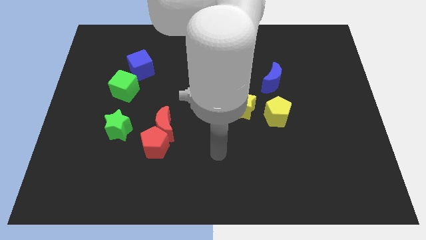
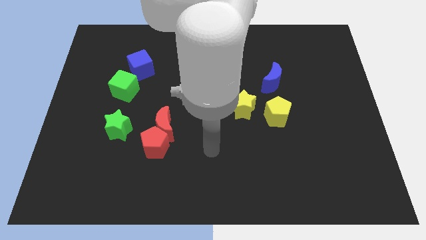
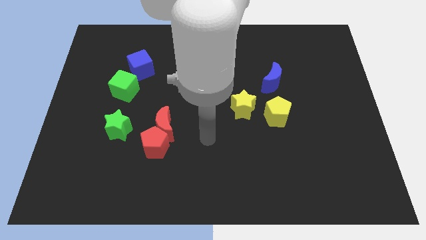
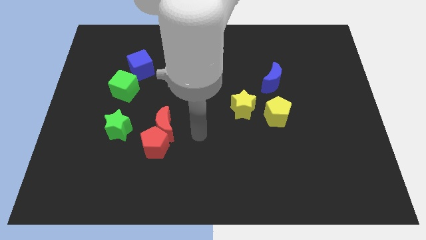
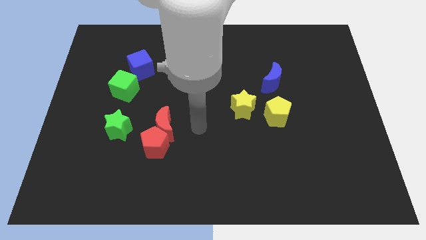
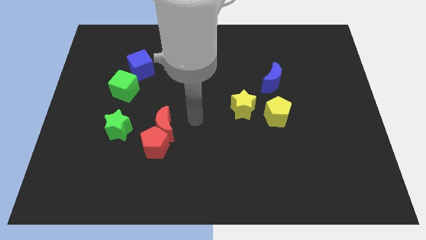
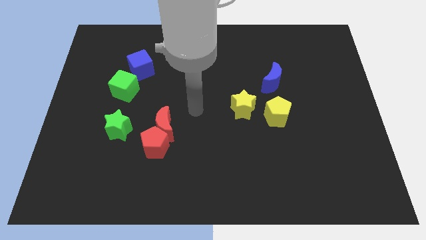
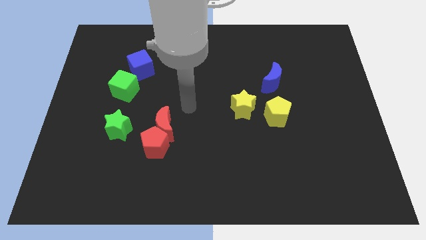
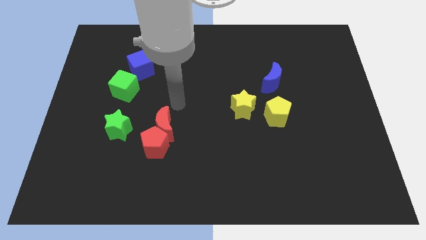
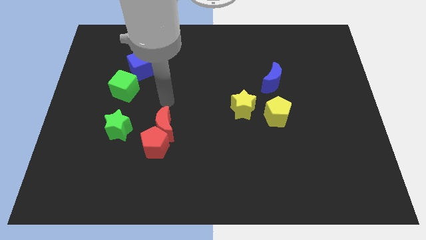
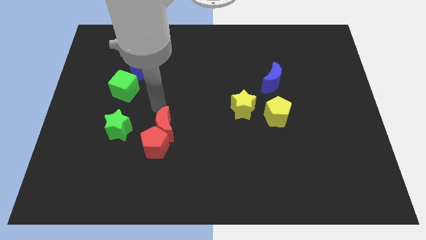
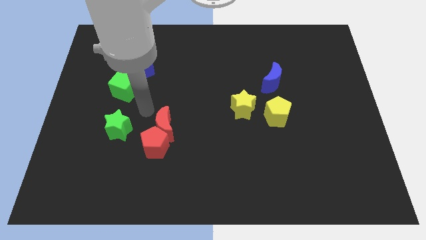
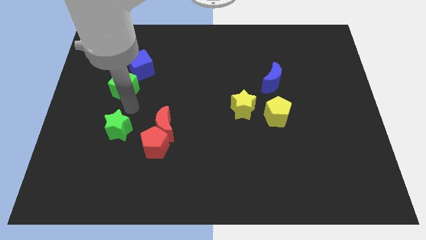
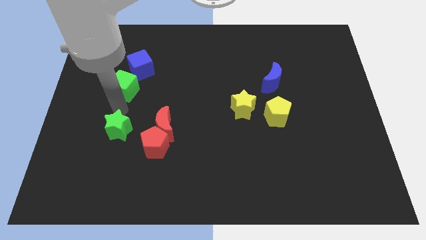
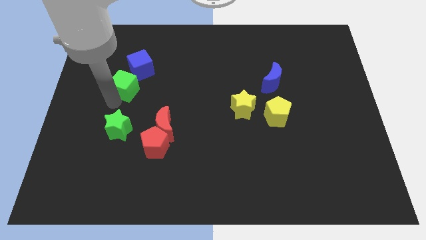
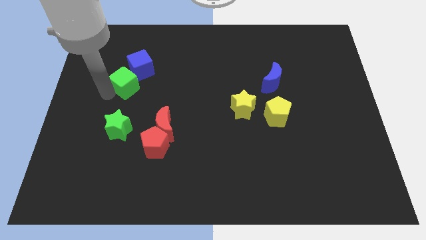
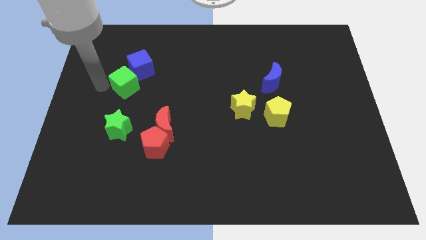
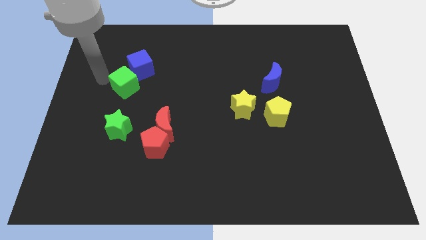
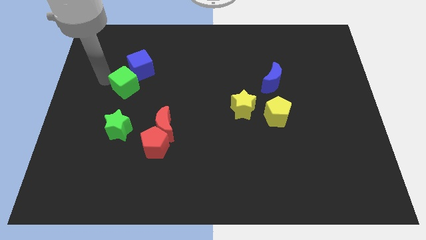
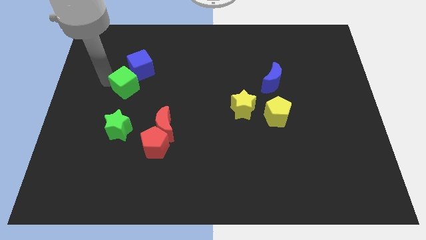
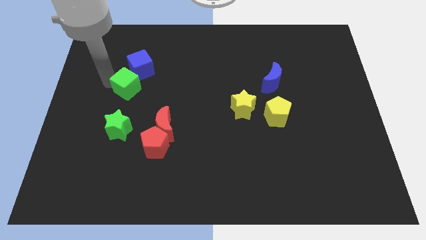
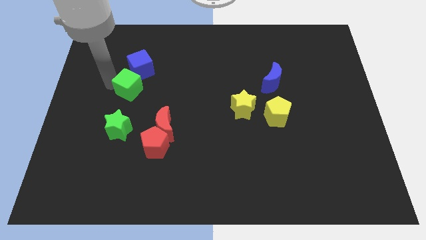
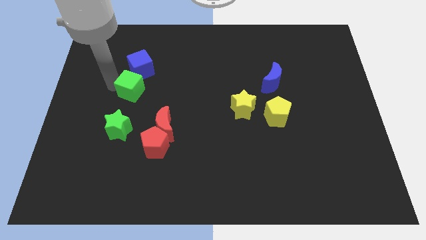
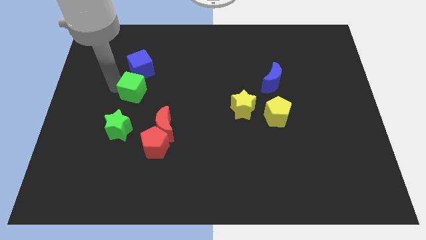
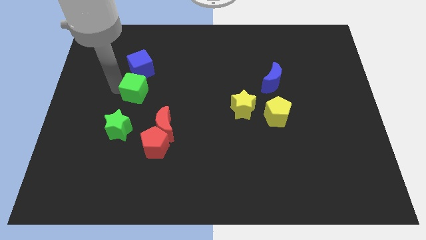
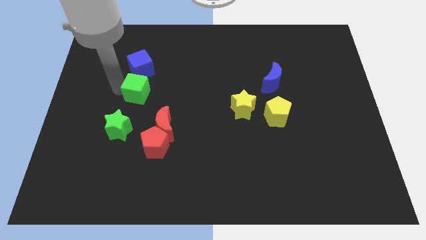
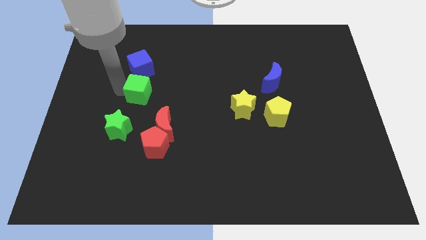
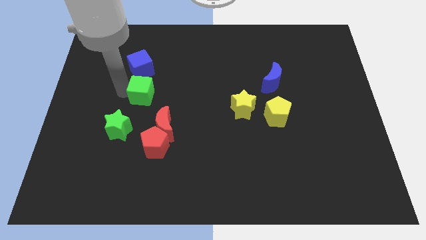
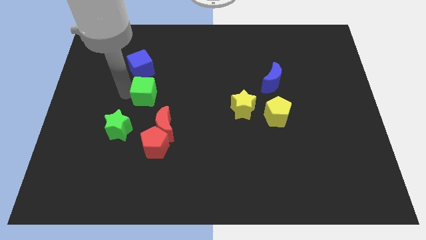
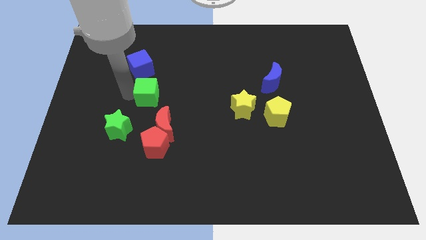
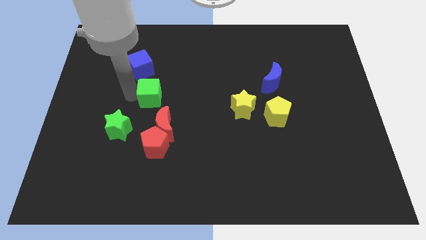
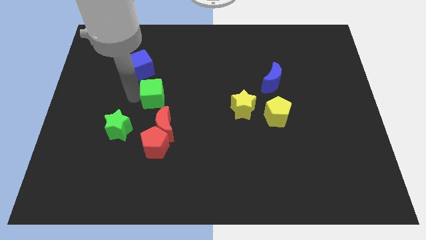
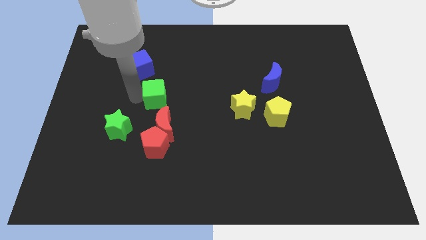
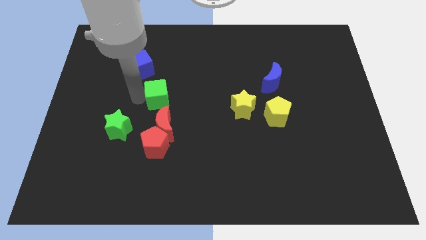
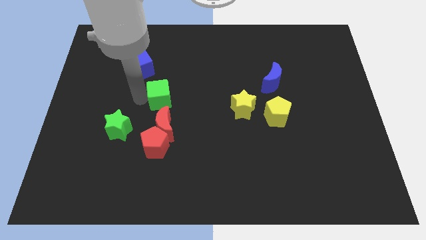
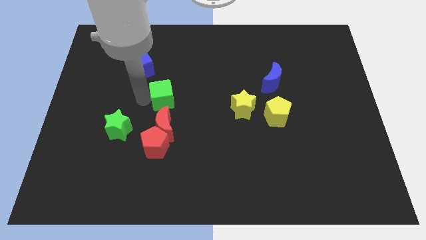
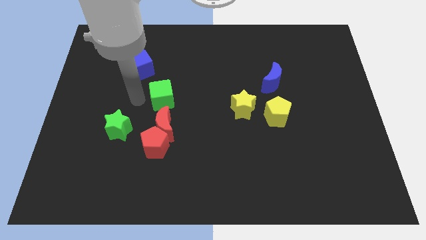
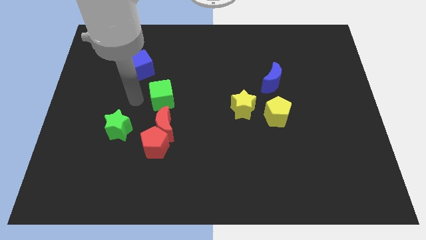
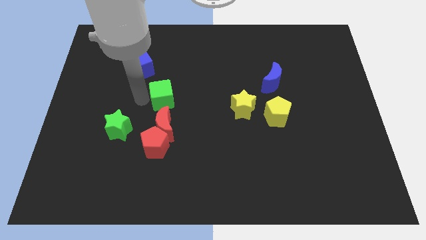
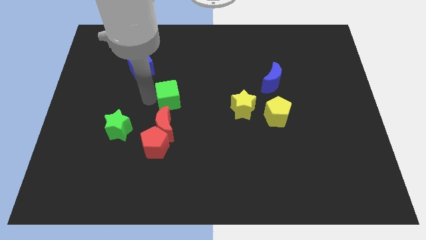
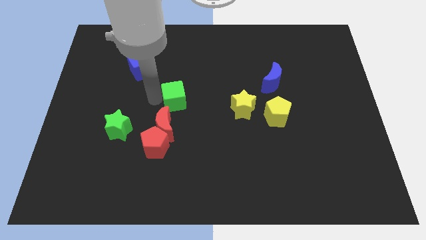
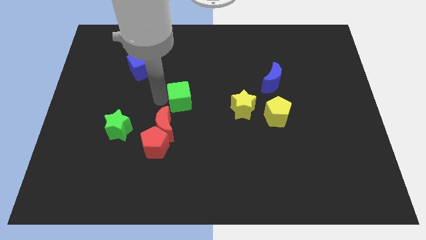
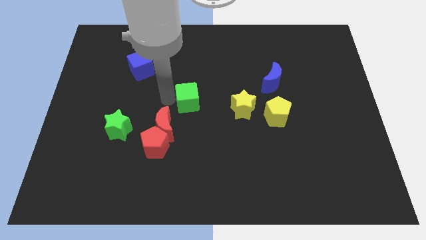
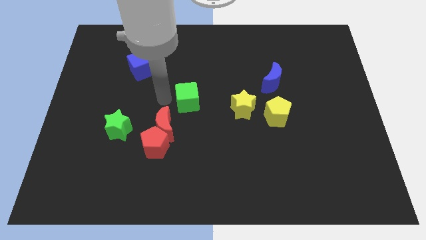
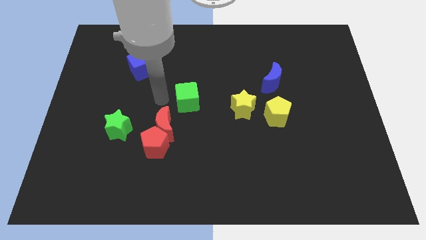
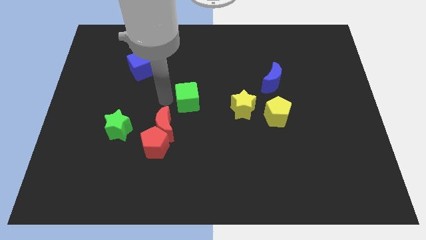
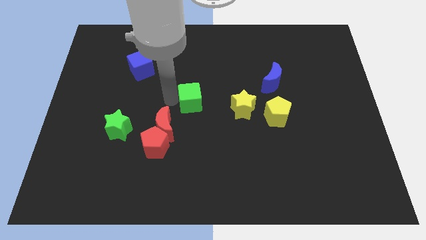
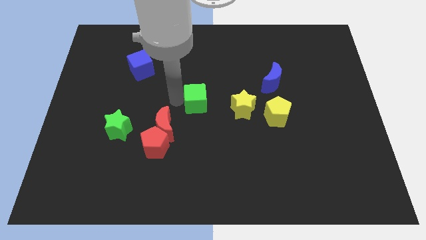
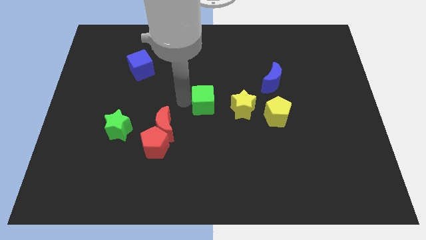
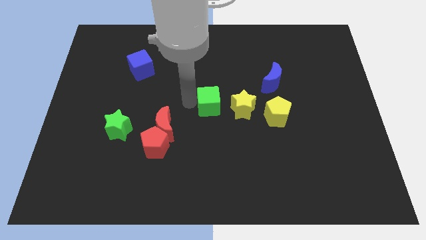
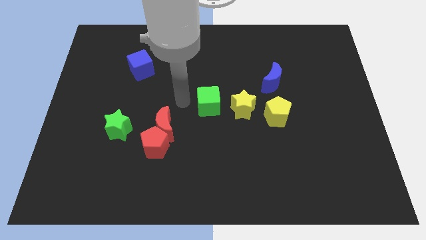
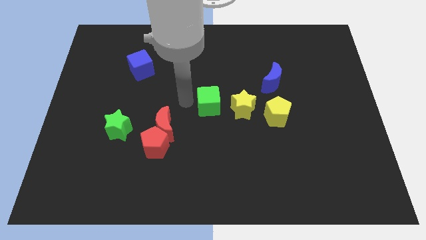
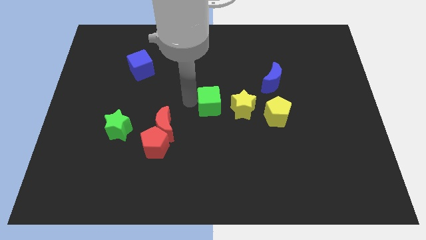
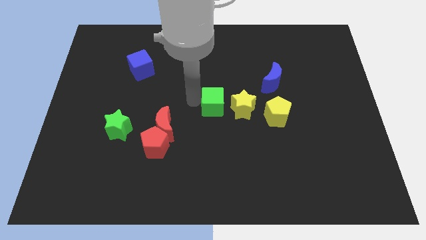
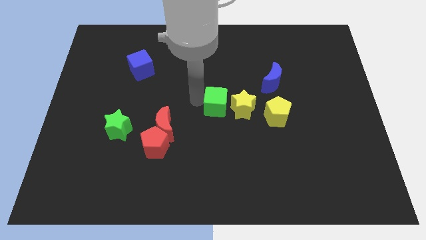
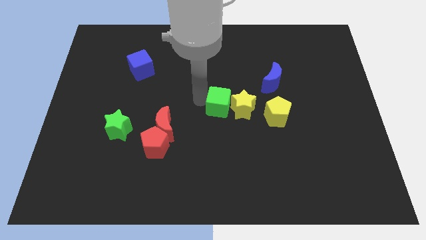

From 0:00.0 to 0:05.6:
slide the green cube close to the yellow star

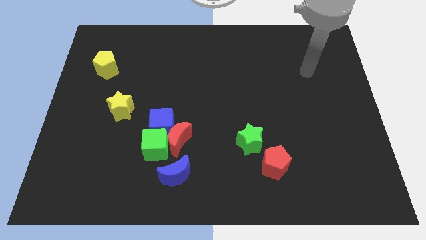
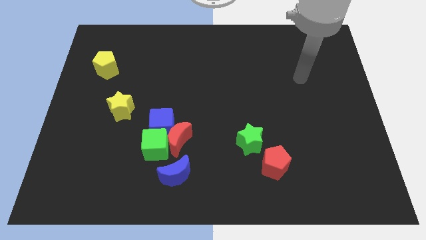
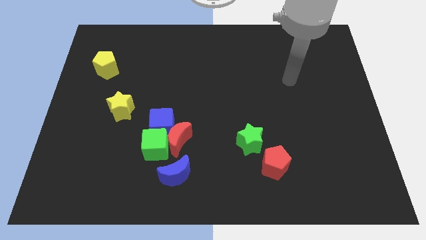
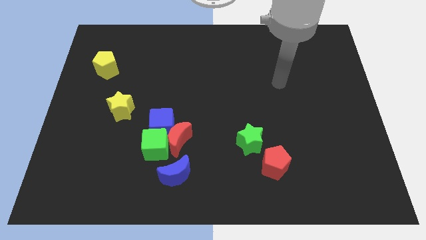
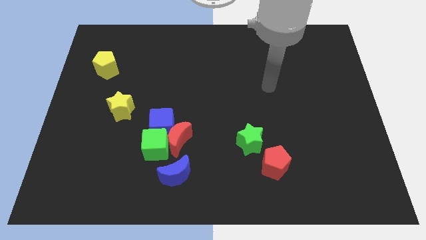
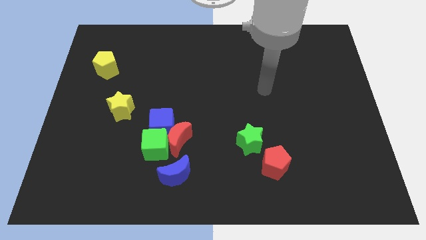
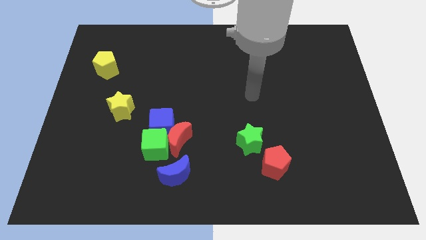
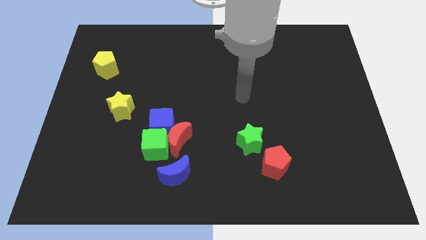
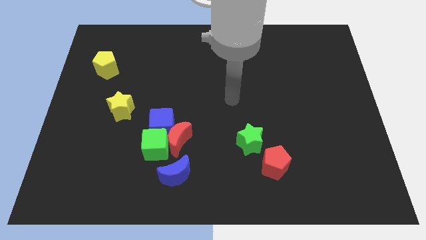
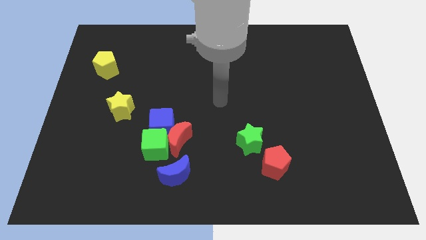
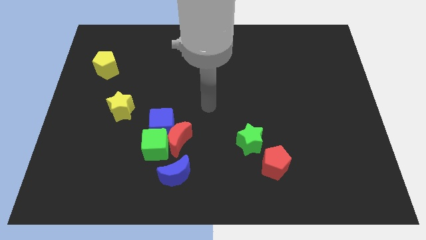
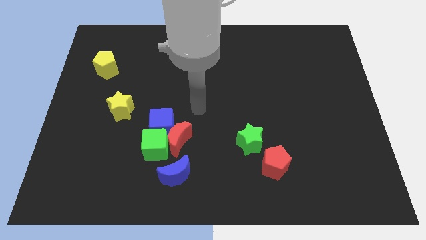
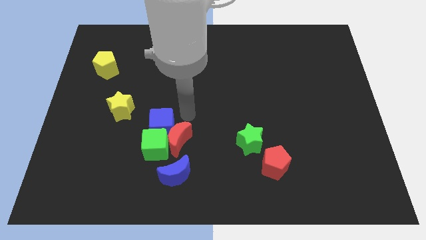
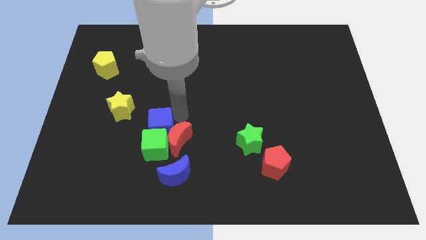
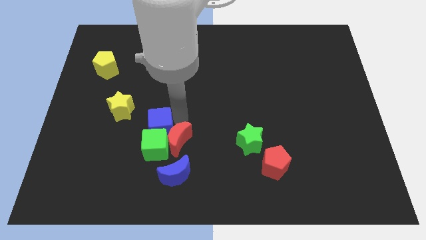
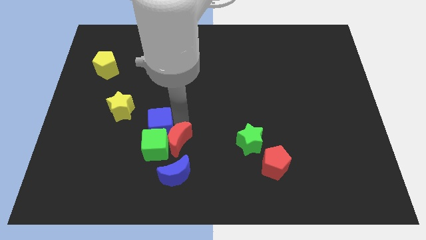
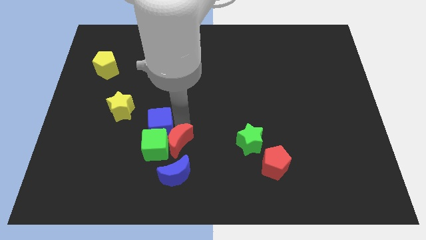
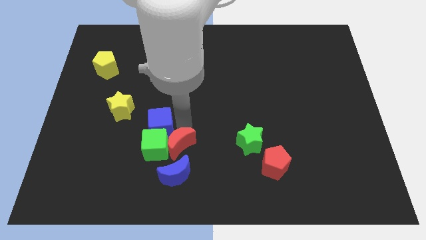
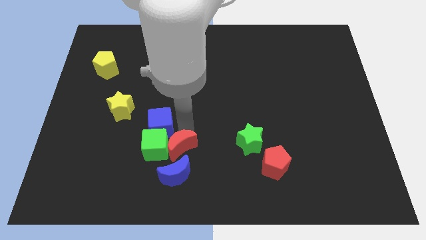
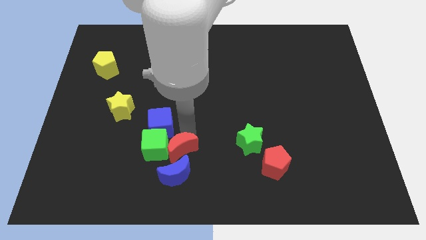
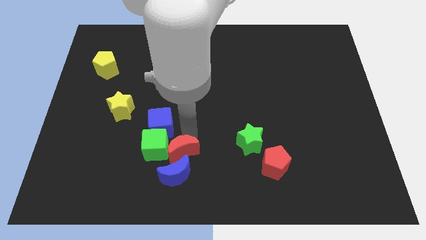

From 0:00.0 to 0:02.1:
slide the red moon towards the blue moon
